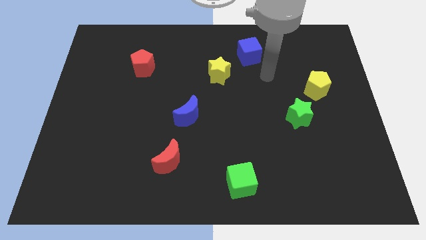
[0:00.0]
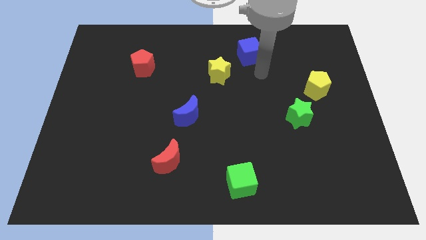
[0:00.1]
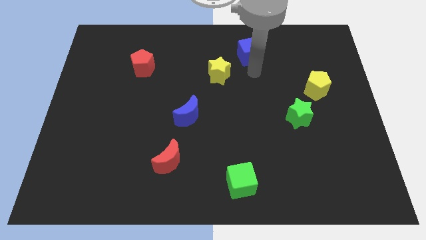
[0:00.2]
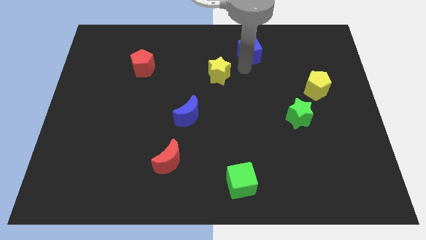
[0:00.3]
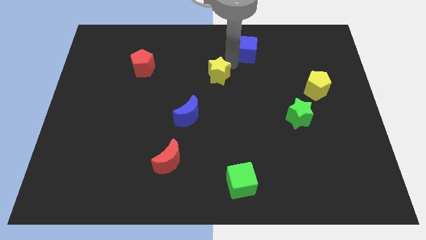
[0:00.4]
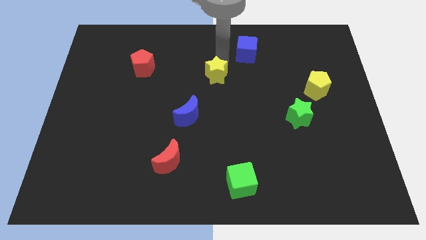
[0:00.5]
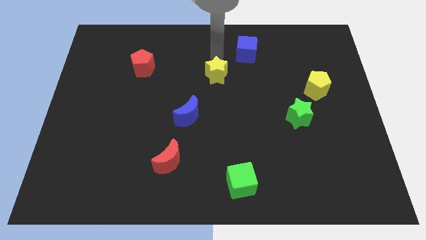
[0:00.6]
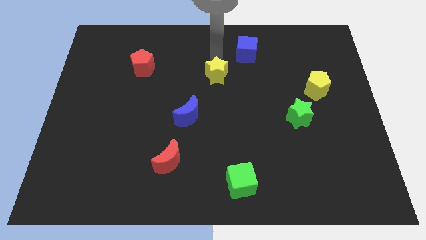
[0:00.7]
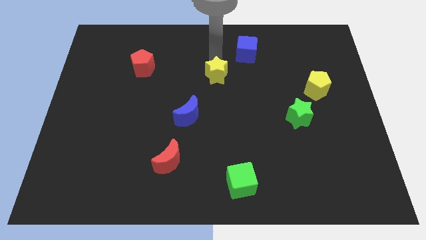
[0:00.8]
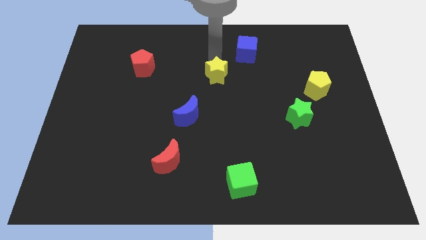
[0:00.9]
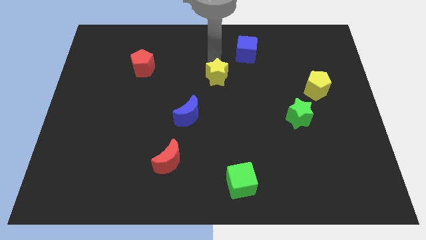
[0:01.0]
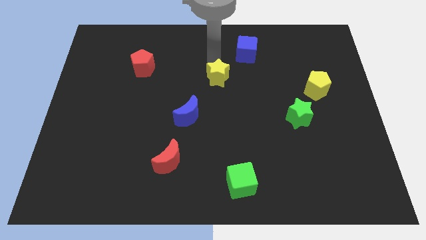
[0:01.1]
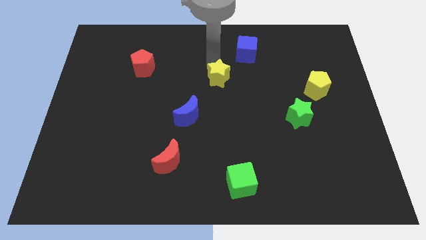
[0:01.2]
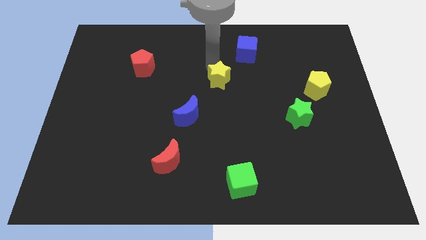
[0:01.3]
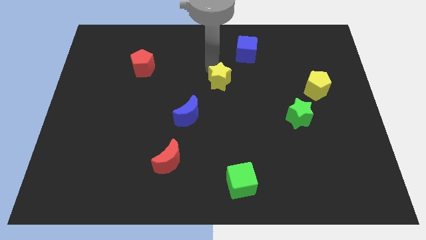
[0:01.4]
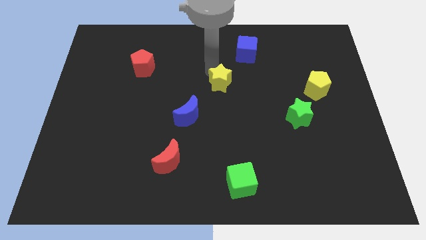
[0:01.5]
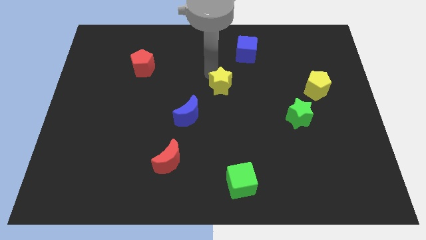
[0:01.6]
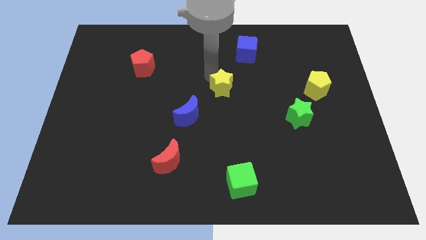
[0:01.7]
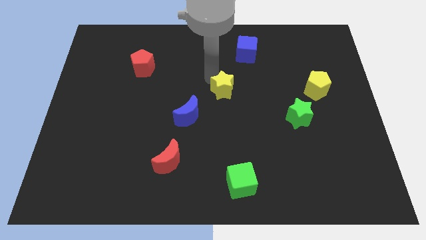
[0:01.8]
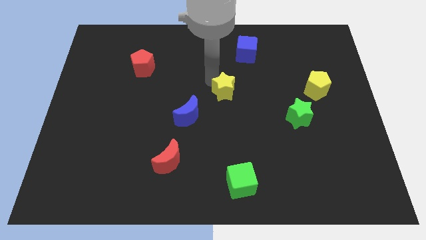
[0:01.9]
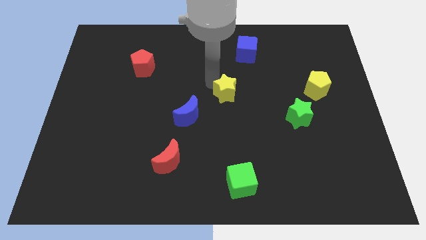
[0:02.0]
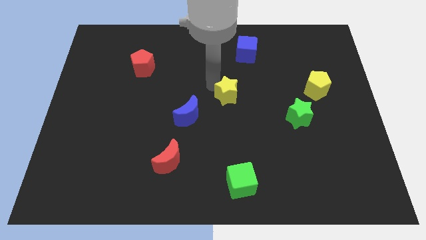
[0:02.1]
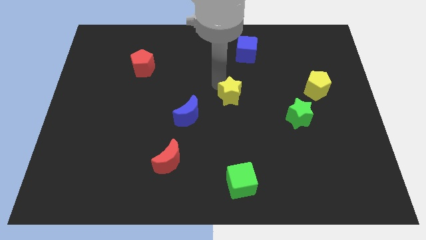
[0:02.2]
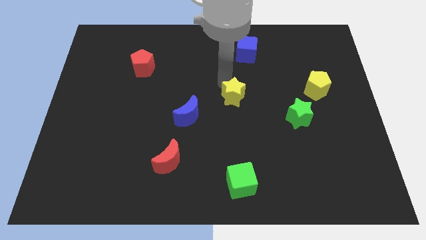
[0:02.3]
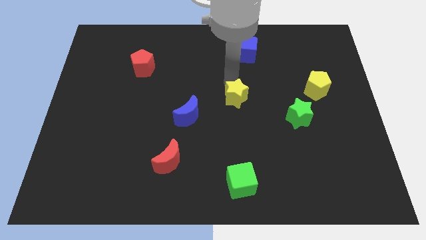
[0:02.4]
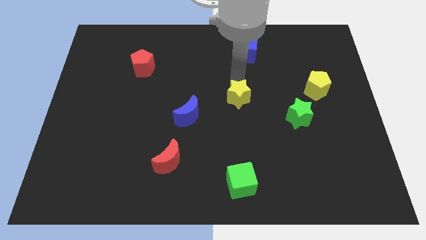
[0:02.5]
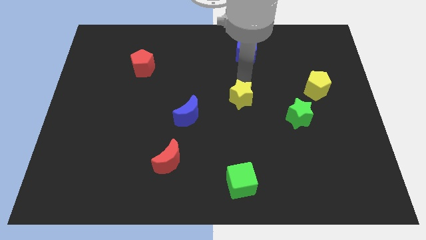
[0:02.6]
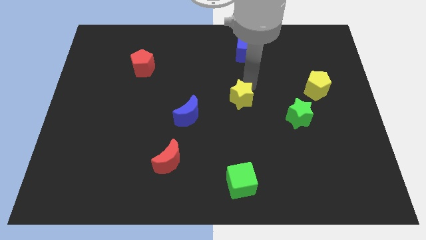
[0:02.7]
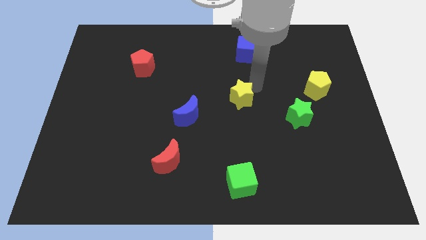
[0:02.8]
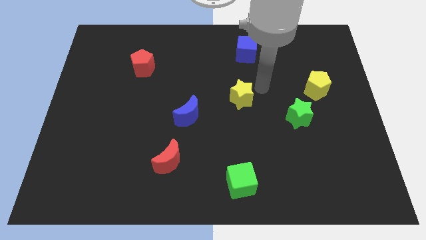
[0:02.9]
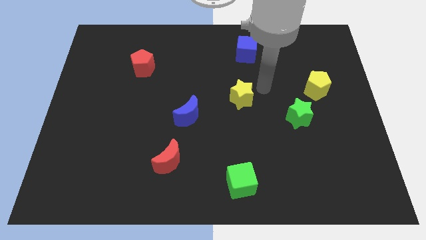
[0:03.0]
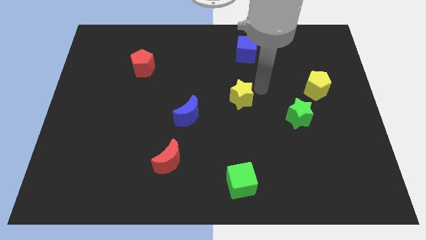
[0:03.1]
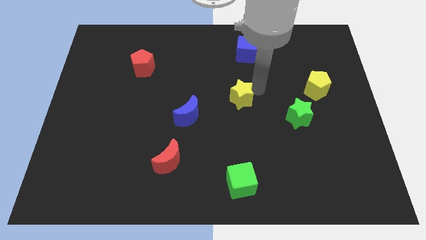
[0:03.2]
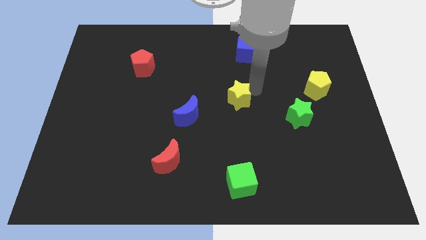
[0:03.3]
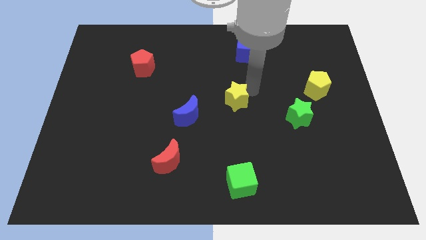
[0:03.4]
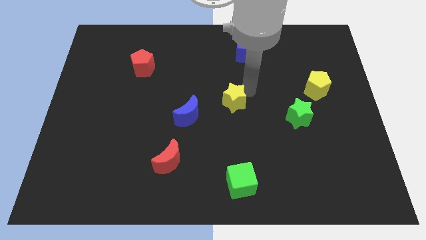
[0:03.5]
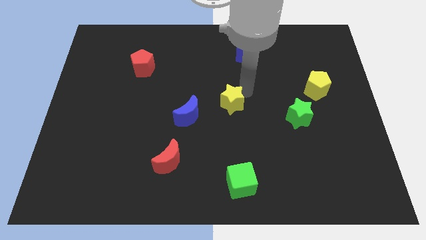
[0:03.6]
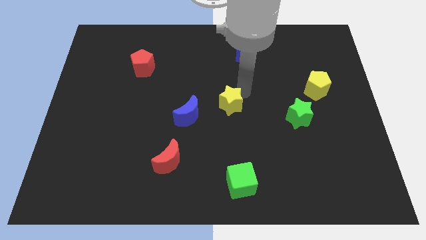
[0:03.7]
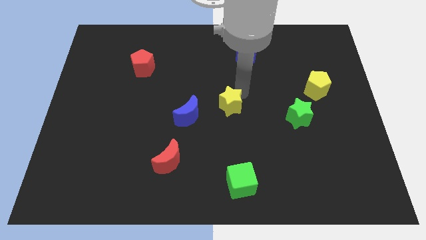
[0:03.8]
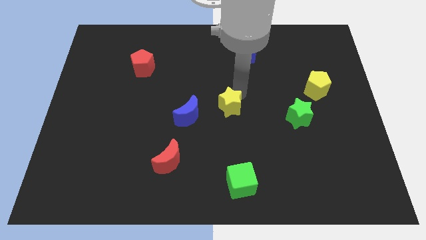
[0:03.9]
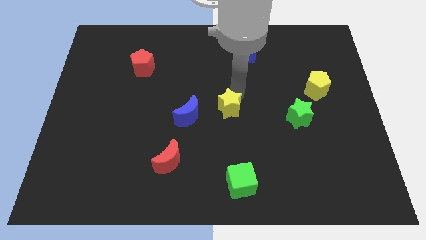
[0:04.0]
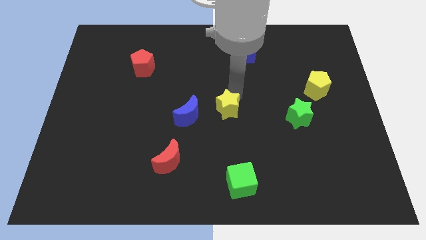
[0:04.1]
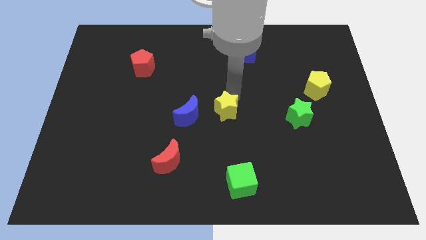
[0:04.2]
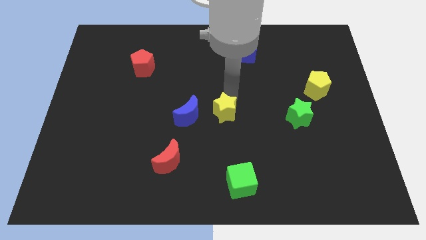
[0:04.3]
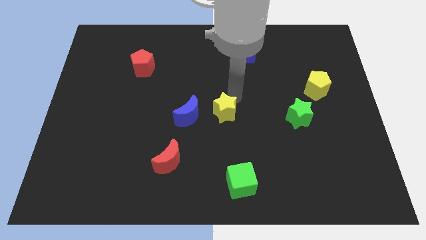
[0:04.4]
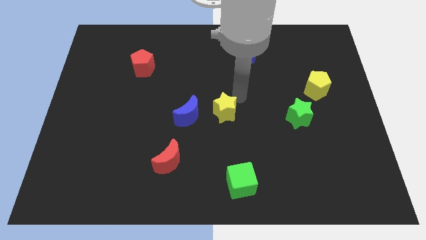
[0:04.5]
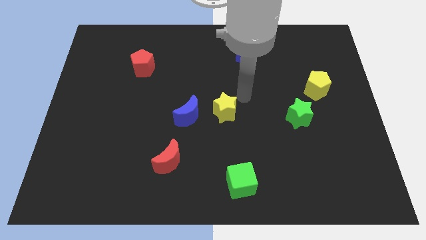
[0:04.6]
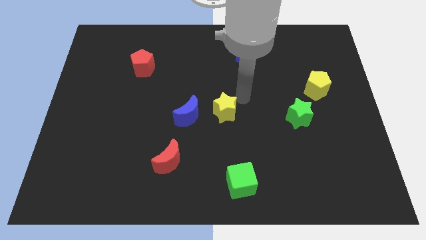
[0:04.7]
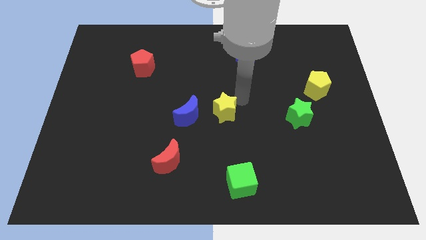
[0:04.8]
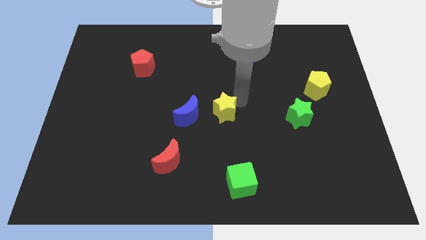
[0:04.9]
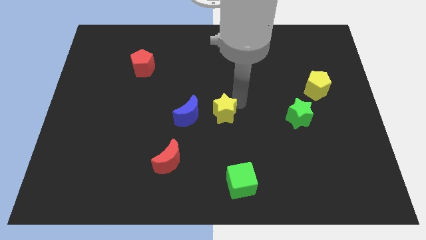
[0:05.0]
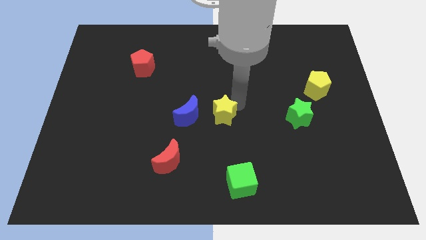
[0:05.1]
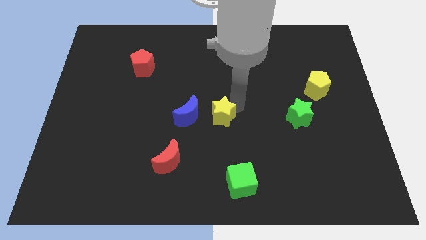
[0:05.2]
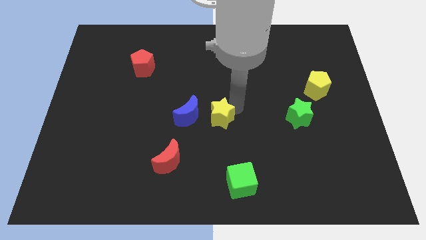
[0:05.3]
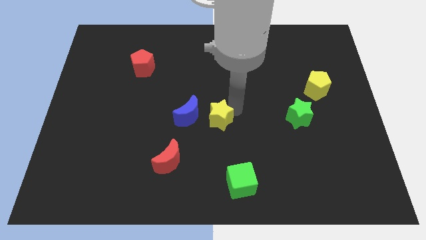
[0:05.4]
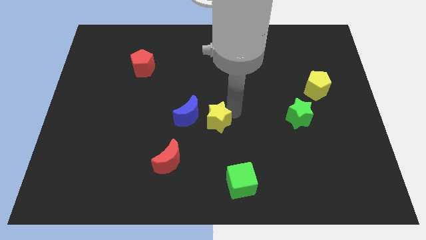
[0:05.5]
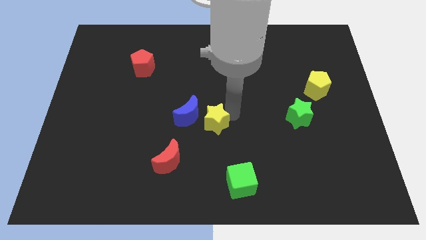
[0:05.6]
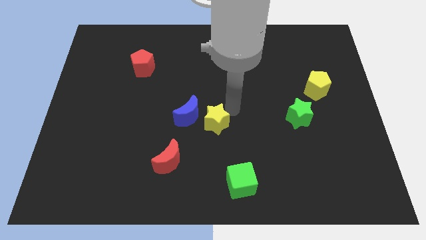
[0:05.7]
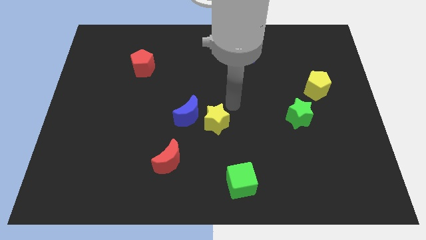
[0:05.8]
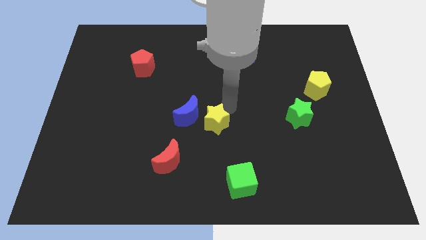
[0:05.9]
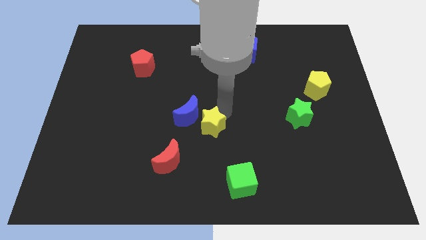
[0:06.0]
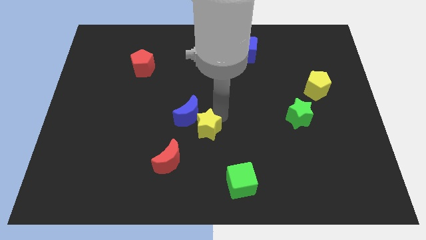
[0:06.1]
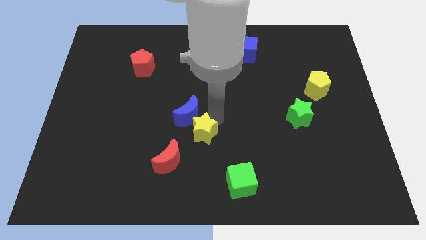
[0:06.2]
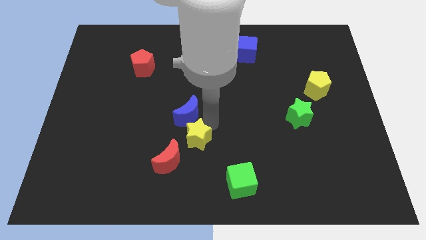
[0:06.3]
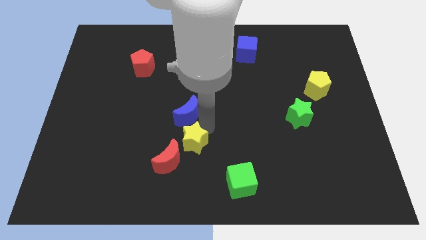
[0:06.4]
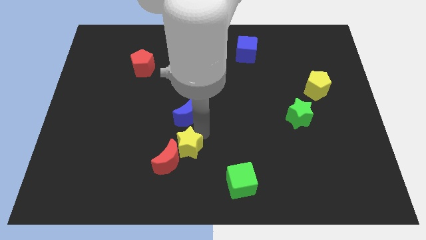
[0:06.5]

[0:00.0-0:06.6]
push the yellow star towards the red moon

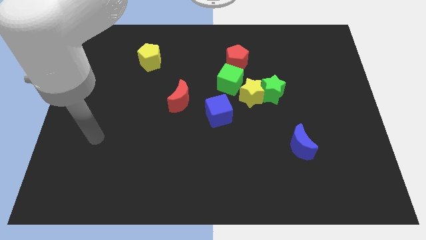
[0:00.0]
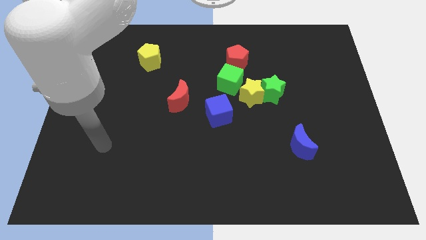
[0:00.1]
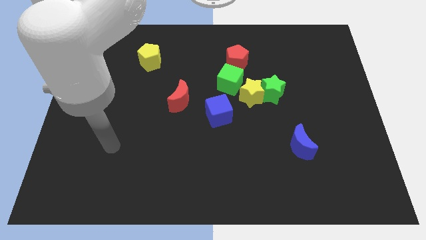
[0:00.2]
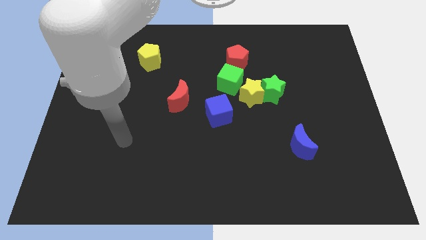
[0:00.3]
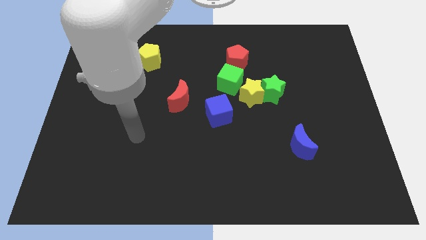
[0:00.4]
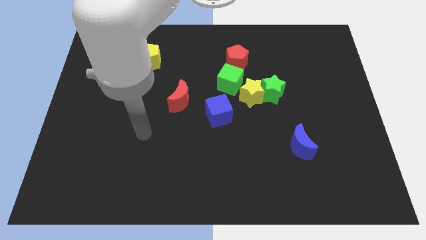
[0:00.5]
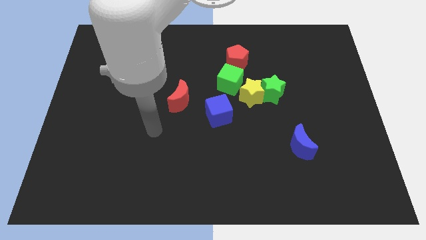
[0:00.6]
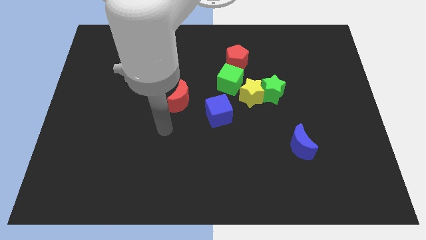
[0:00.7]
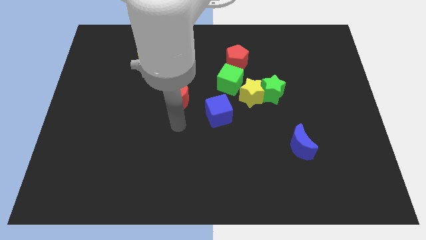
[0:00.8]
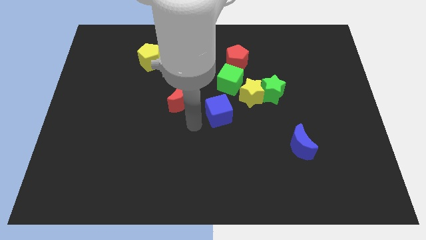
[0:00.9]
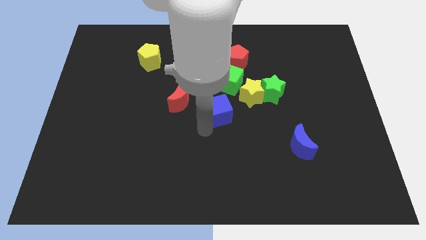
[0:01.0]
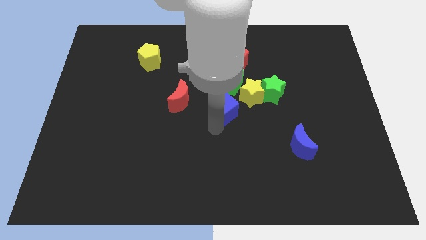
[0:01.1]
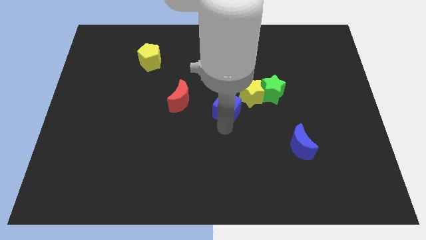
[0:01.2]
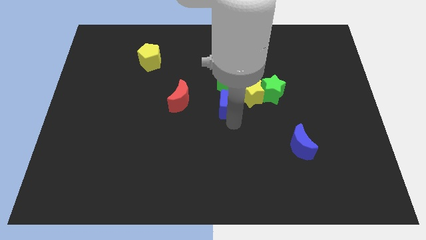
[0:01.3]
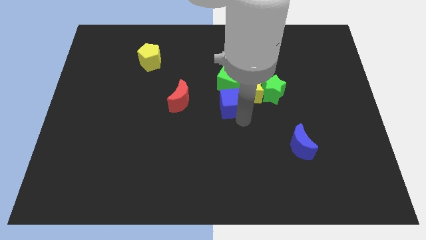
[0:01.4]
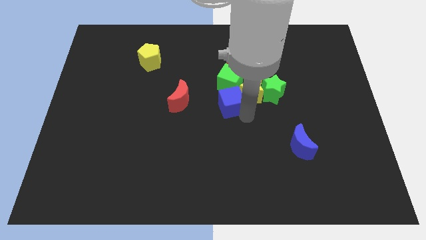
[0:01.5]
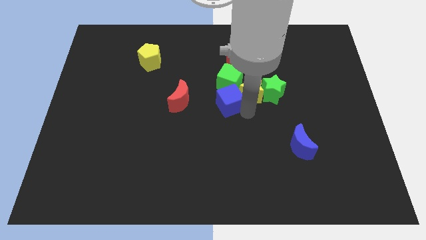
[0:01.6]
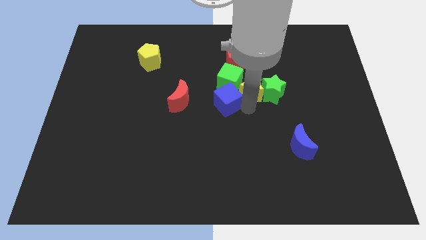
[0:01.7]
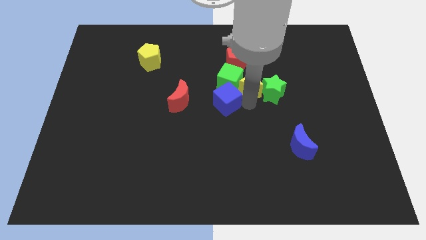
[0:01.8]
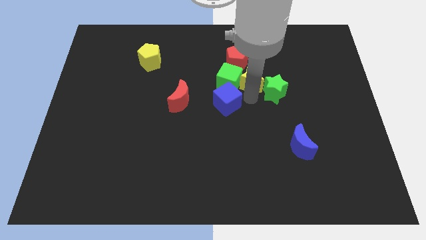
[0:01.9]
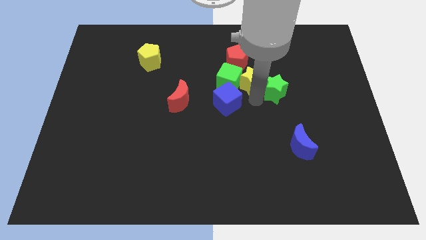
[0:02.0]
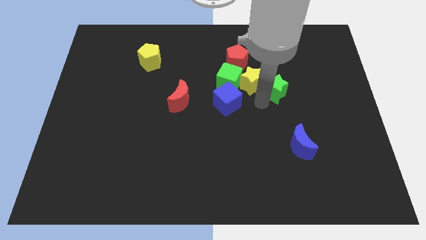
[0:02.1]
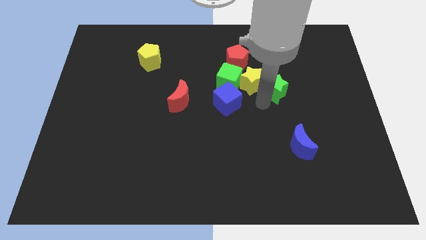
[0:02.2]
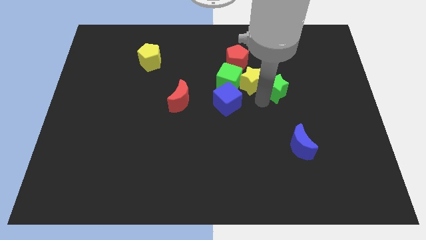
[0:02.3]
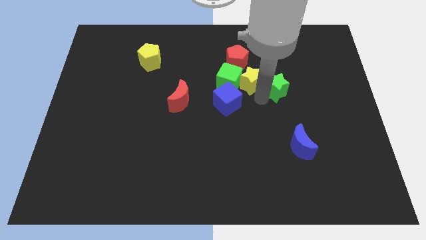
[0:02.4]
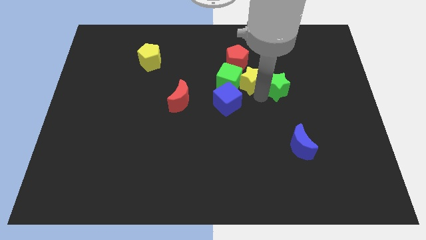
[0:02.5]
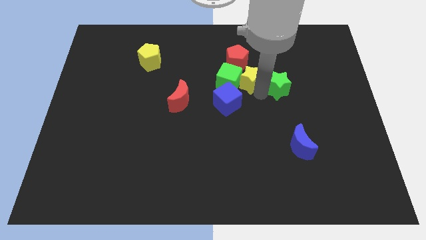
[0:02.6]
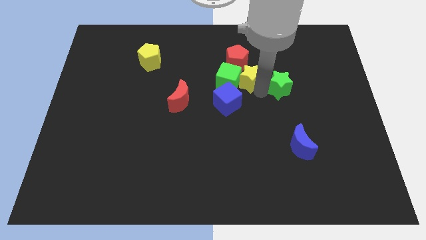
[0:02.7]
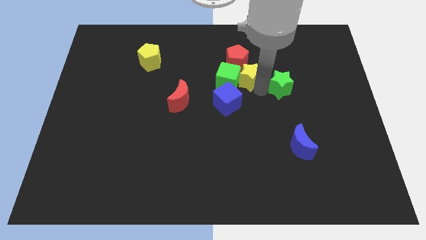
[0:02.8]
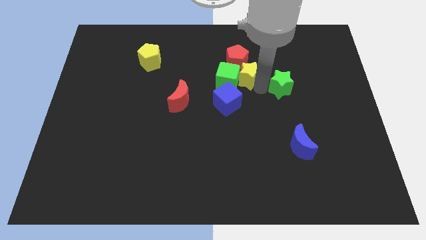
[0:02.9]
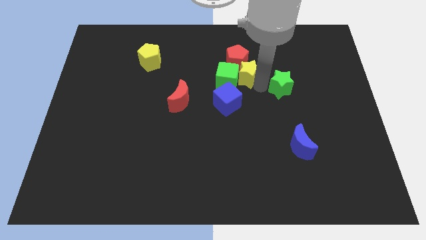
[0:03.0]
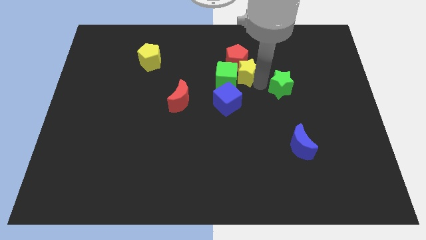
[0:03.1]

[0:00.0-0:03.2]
put the yellow star close to the red pentagon
